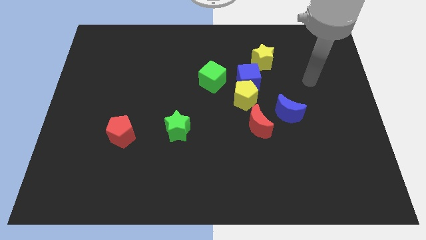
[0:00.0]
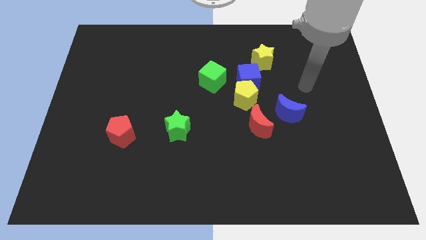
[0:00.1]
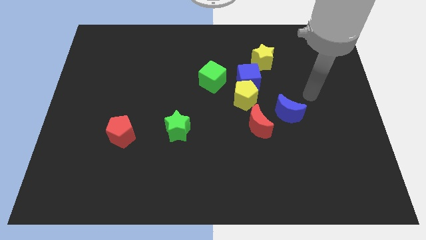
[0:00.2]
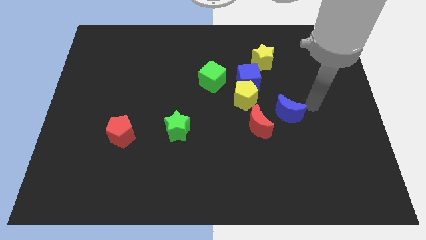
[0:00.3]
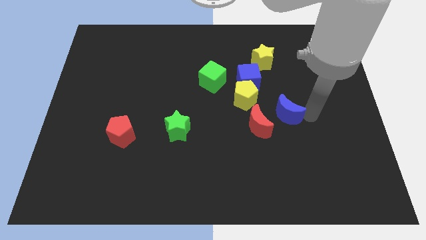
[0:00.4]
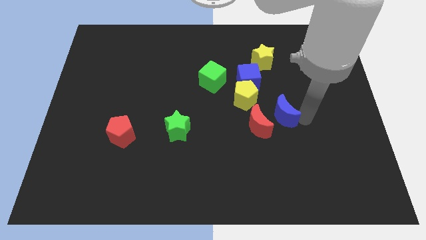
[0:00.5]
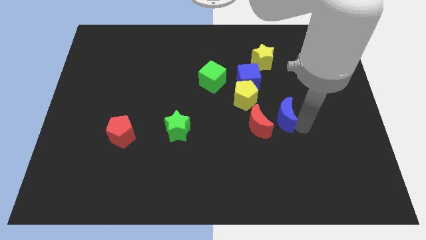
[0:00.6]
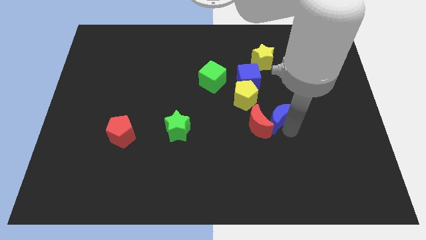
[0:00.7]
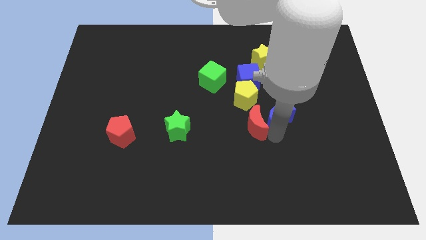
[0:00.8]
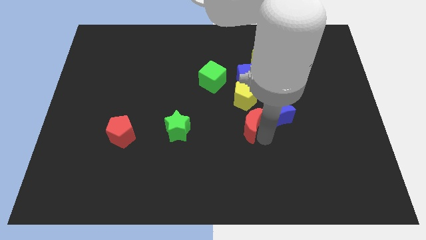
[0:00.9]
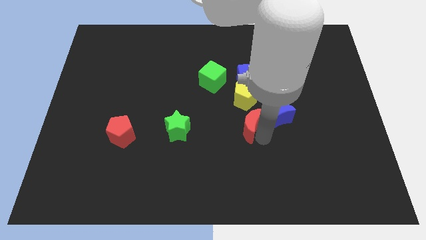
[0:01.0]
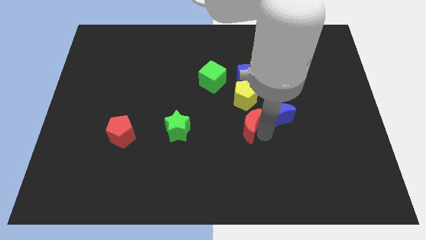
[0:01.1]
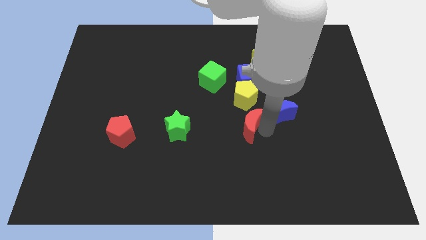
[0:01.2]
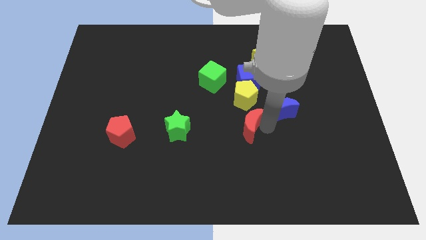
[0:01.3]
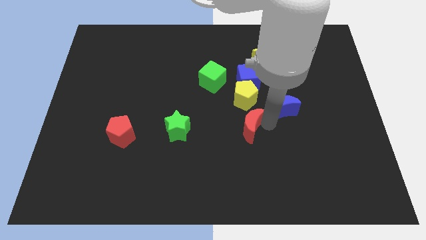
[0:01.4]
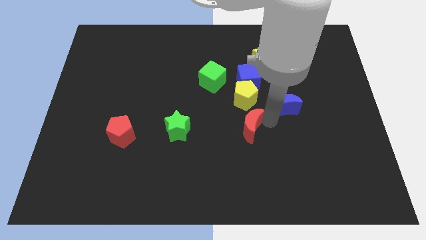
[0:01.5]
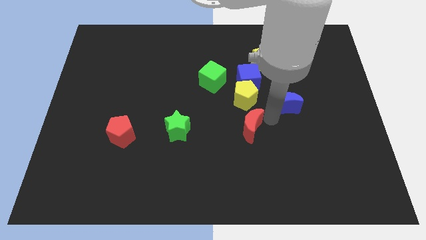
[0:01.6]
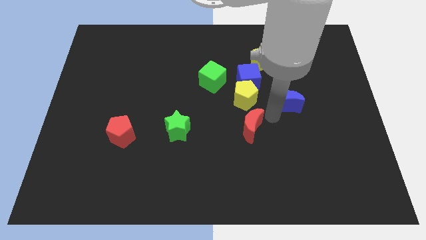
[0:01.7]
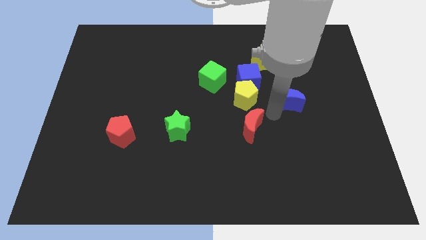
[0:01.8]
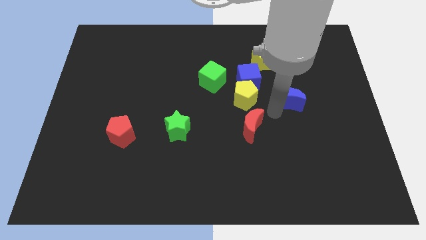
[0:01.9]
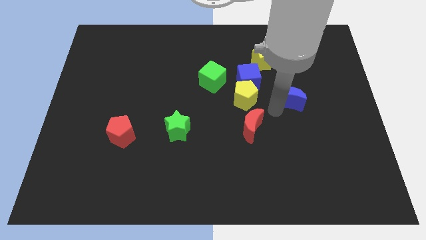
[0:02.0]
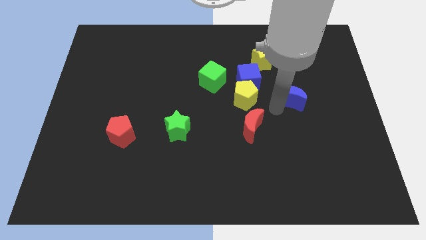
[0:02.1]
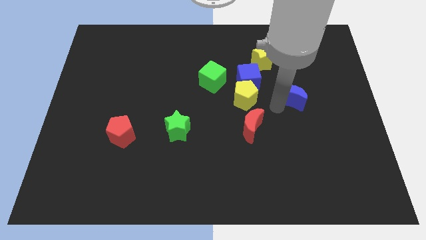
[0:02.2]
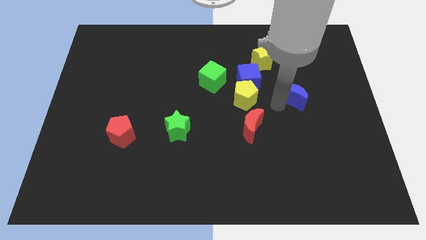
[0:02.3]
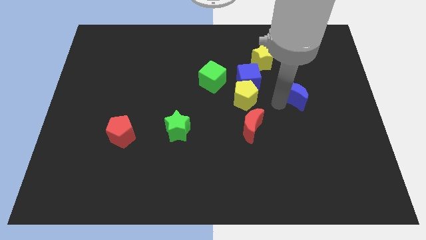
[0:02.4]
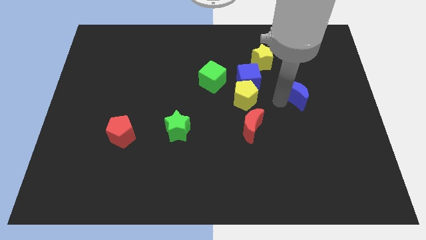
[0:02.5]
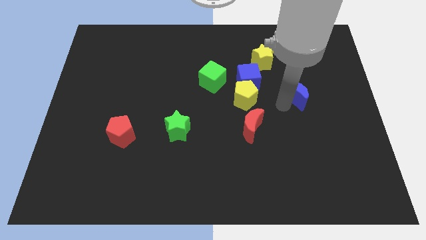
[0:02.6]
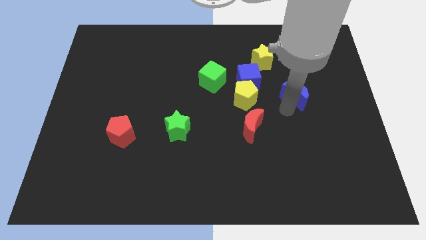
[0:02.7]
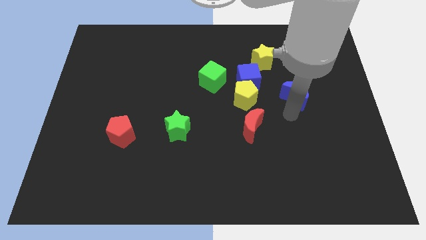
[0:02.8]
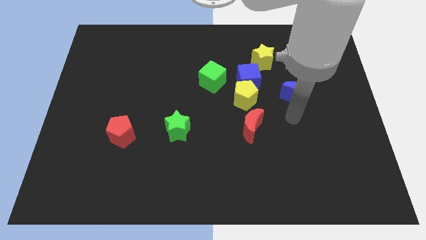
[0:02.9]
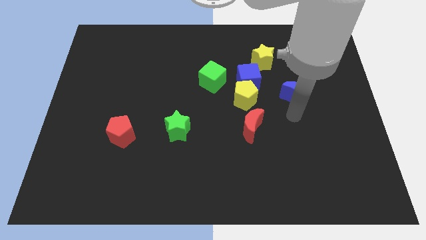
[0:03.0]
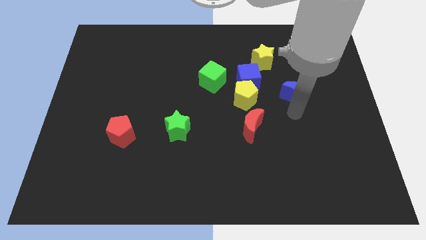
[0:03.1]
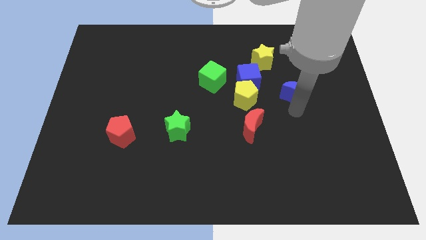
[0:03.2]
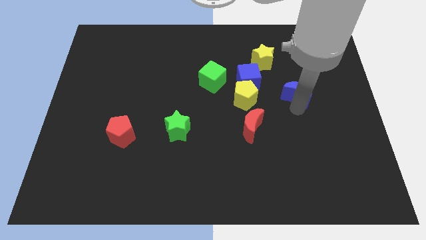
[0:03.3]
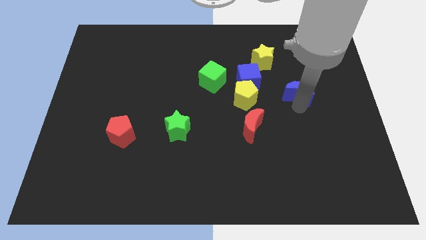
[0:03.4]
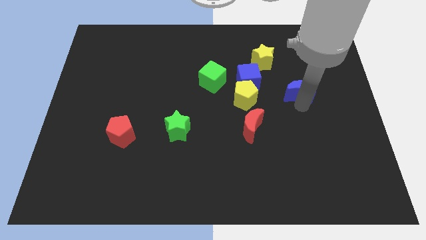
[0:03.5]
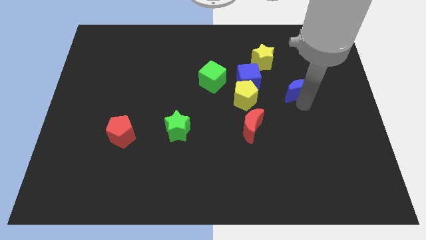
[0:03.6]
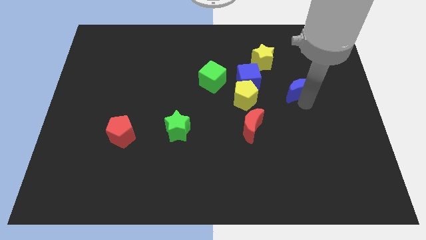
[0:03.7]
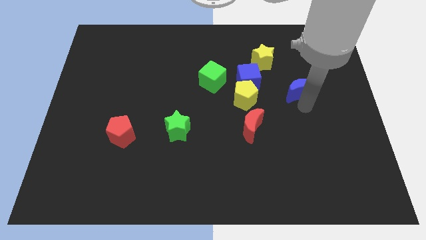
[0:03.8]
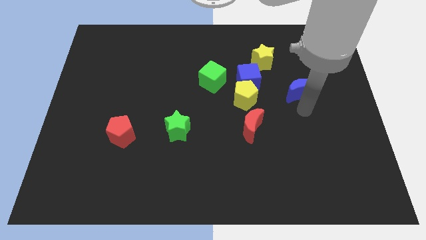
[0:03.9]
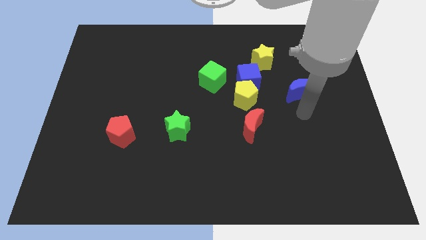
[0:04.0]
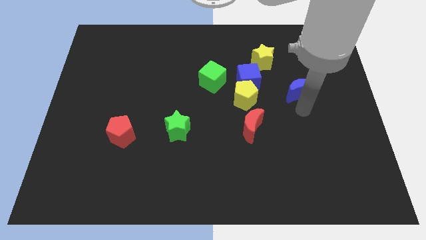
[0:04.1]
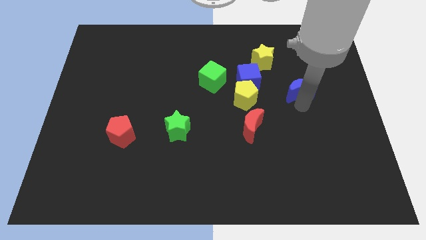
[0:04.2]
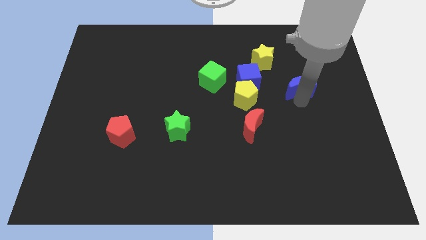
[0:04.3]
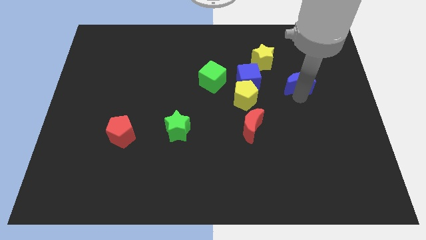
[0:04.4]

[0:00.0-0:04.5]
push the blue moon a little bit up

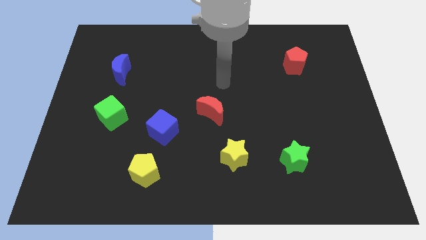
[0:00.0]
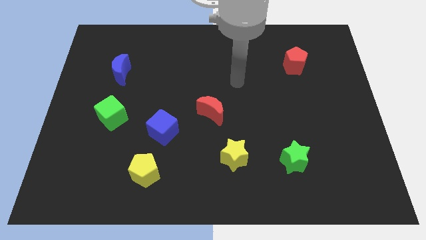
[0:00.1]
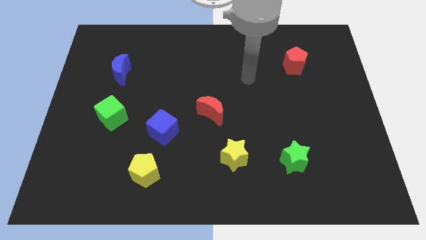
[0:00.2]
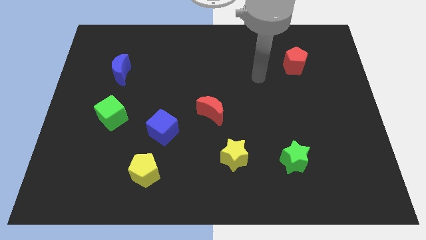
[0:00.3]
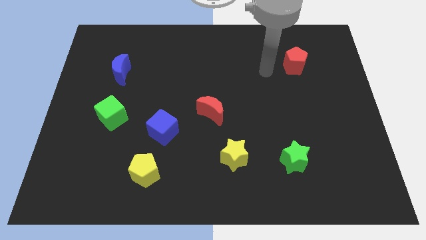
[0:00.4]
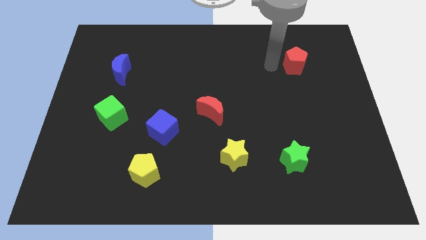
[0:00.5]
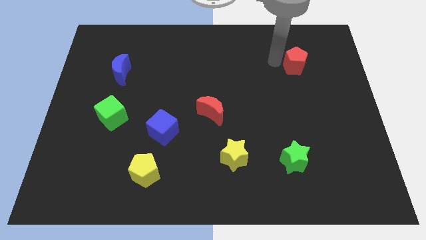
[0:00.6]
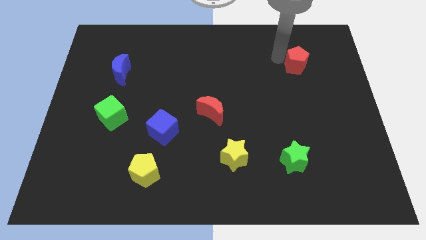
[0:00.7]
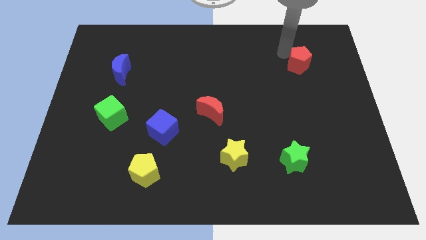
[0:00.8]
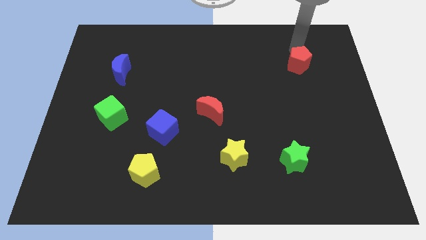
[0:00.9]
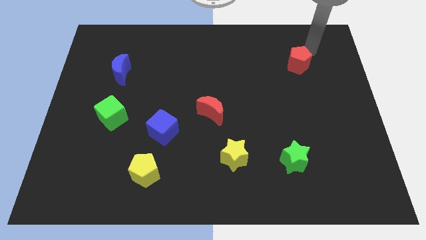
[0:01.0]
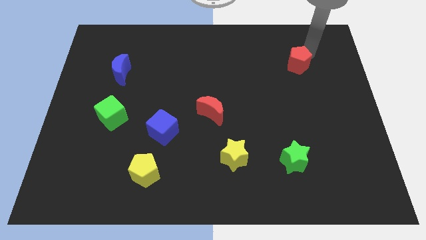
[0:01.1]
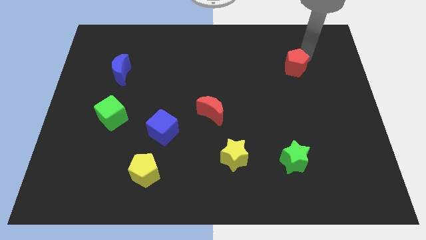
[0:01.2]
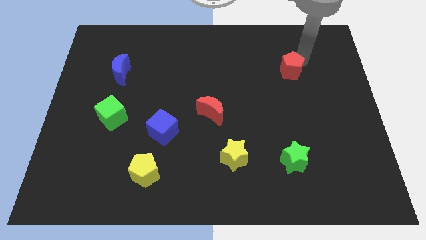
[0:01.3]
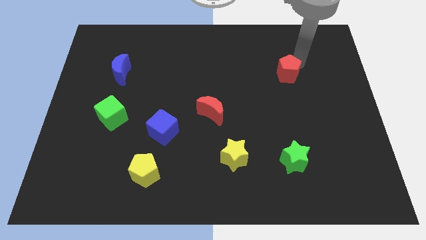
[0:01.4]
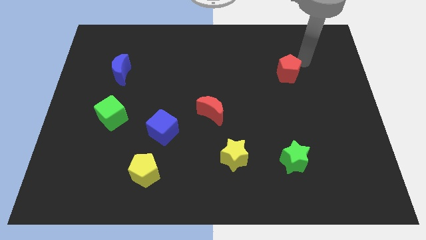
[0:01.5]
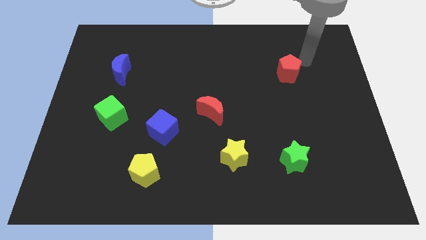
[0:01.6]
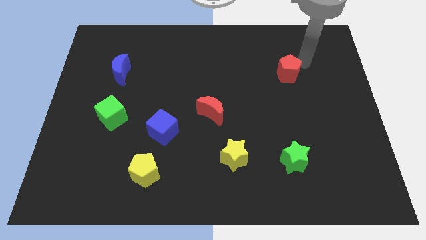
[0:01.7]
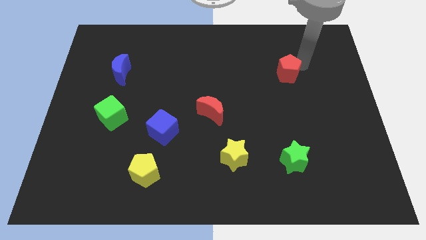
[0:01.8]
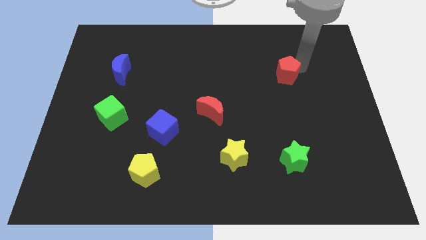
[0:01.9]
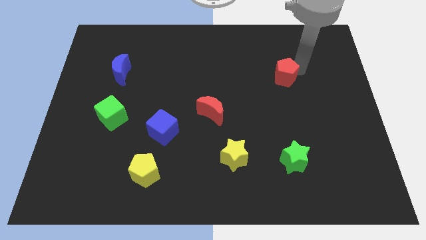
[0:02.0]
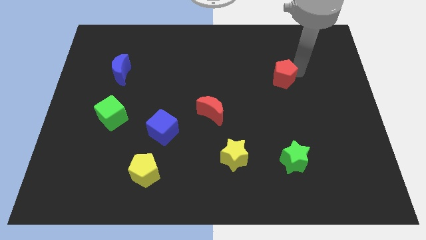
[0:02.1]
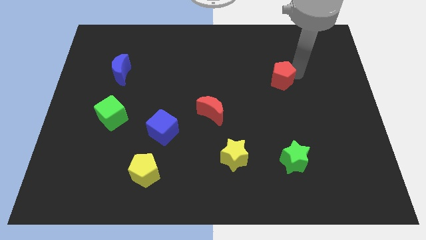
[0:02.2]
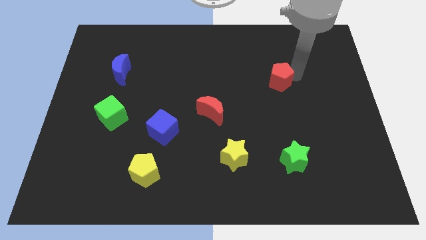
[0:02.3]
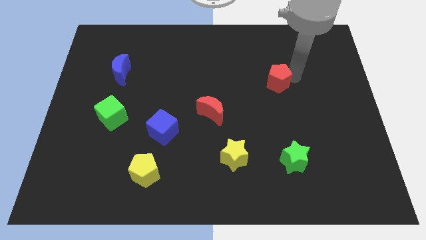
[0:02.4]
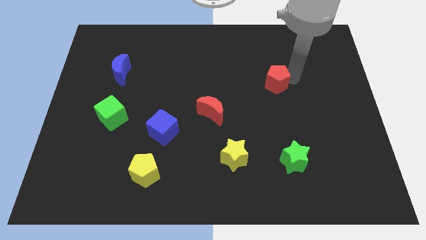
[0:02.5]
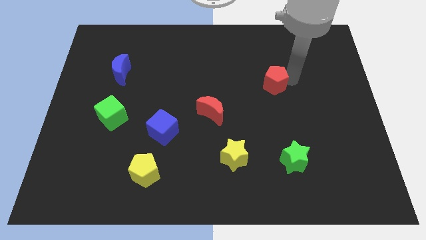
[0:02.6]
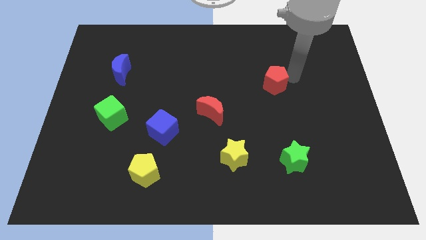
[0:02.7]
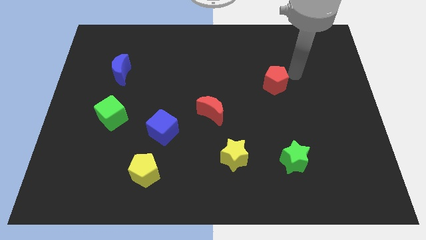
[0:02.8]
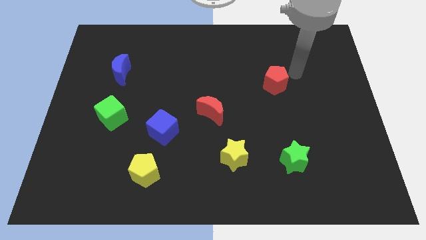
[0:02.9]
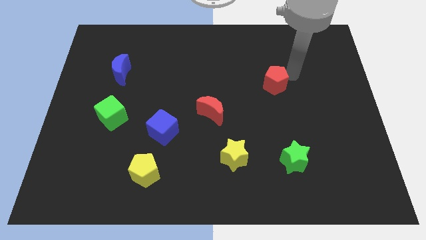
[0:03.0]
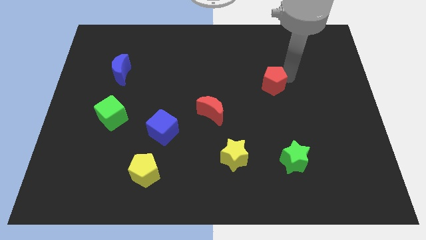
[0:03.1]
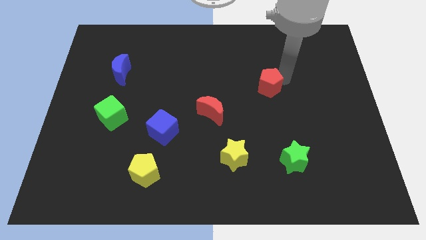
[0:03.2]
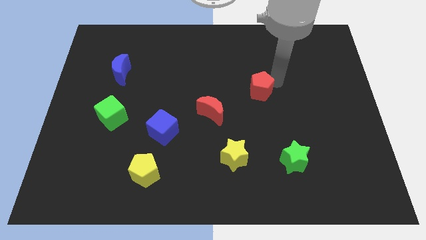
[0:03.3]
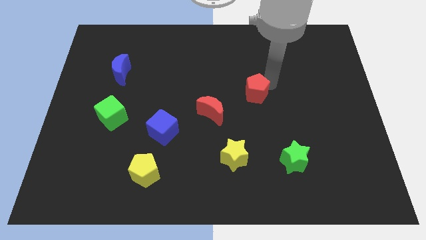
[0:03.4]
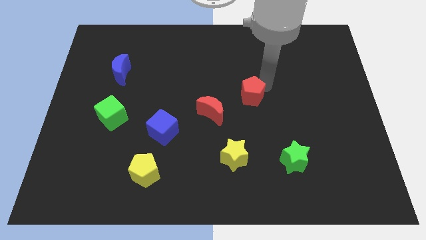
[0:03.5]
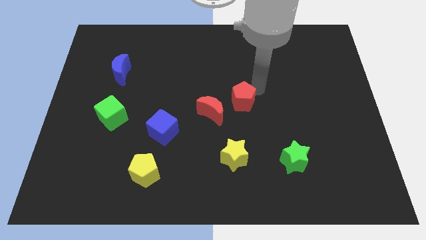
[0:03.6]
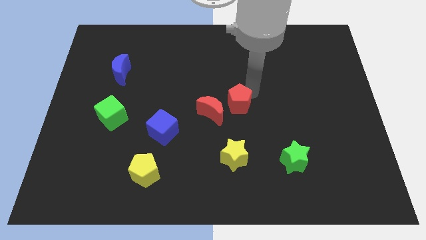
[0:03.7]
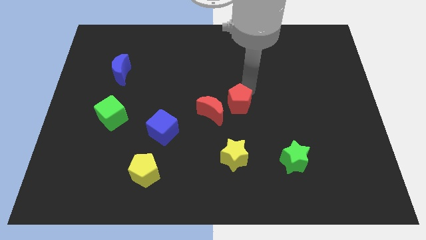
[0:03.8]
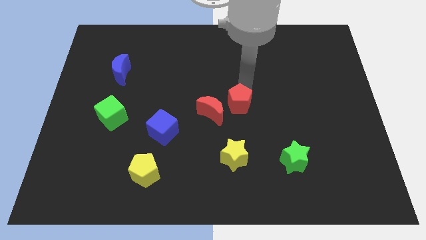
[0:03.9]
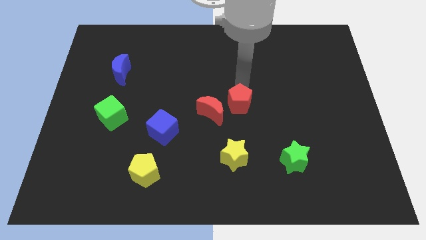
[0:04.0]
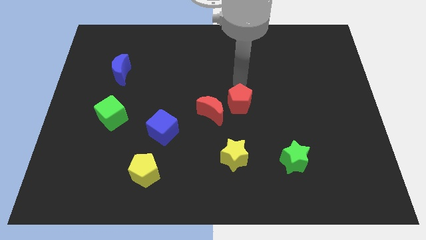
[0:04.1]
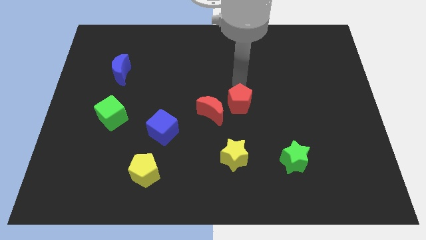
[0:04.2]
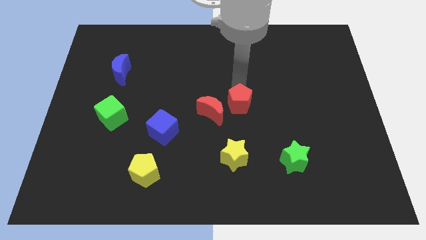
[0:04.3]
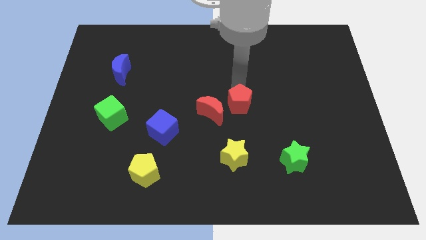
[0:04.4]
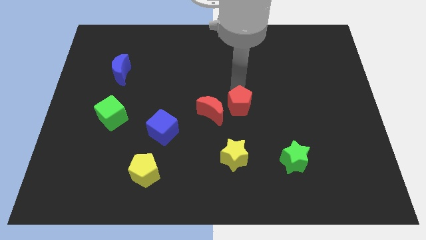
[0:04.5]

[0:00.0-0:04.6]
push the red pentagon downwards and to the left
